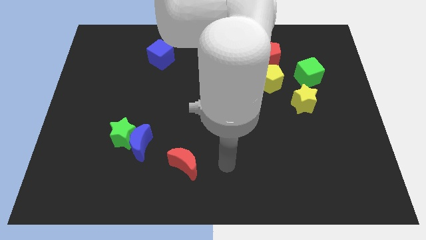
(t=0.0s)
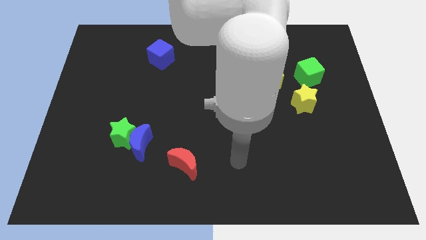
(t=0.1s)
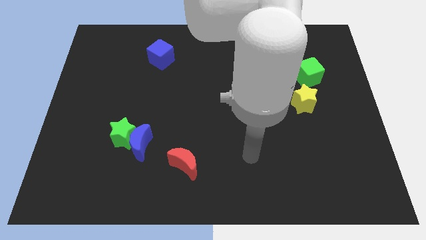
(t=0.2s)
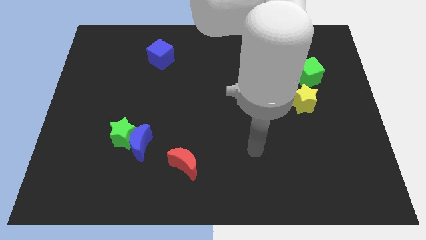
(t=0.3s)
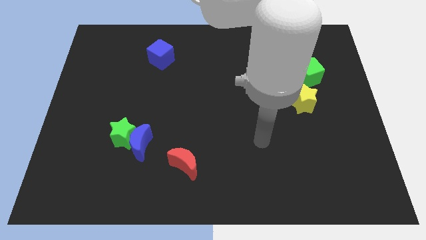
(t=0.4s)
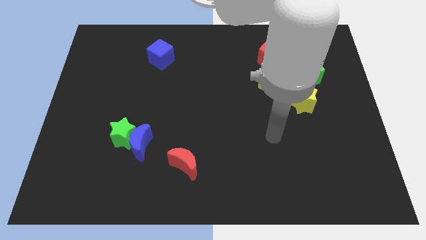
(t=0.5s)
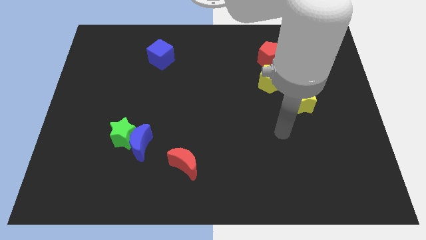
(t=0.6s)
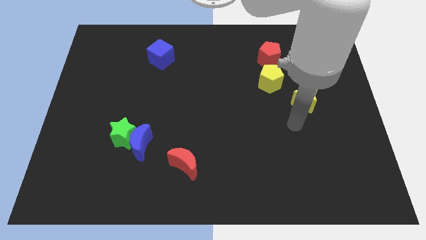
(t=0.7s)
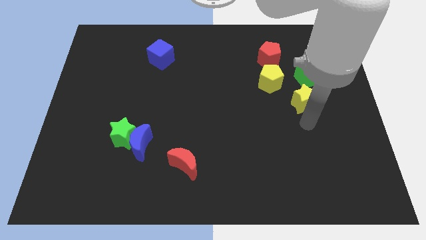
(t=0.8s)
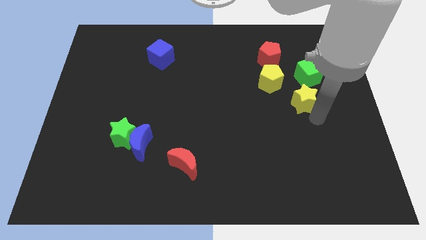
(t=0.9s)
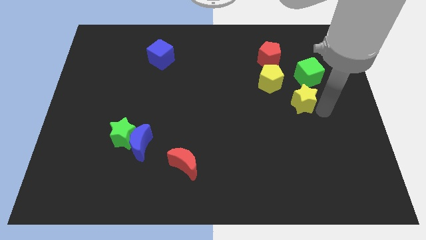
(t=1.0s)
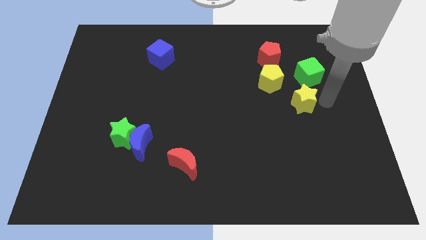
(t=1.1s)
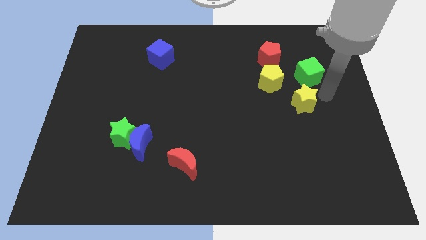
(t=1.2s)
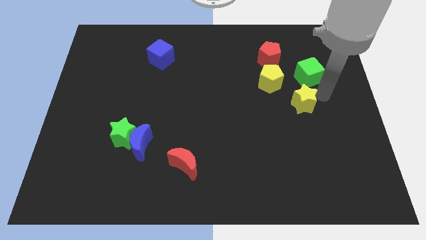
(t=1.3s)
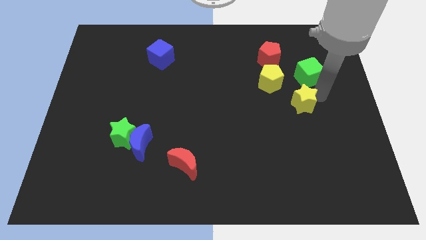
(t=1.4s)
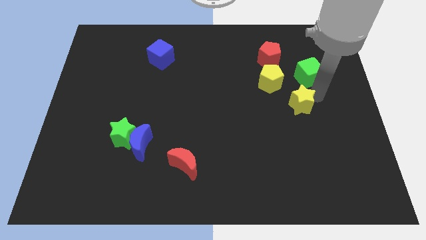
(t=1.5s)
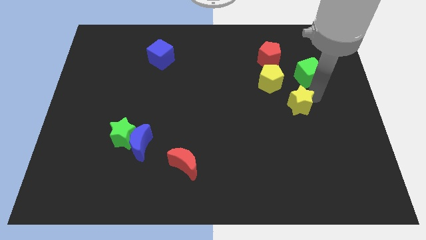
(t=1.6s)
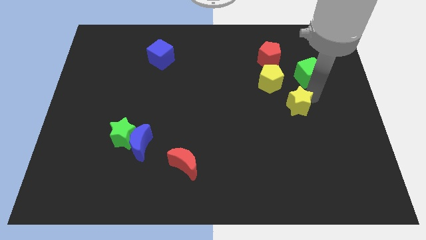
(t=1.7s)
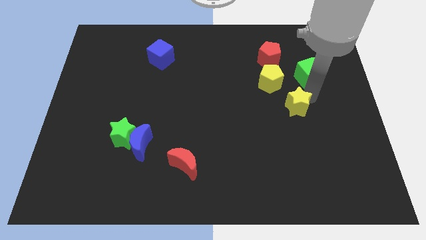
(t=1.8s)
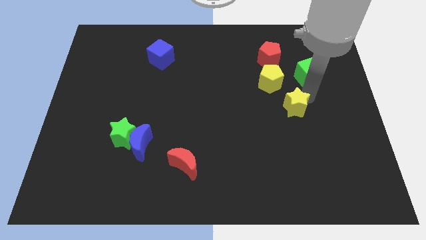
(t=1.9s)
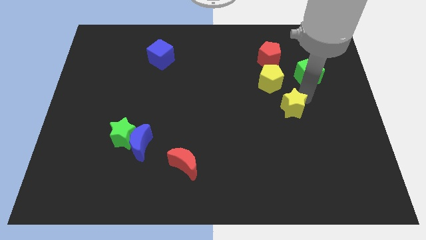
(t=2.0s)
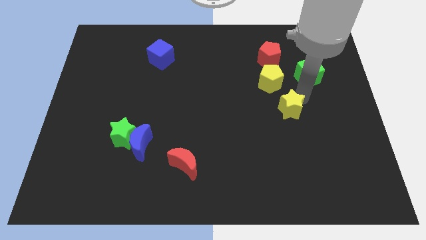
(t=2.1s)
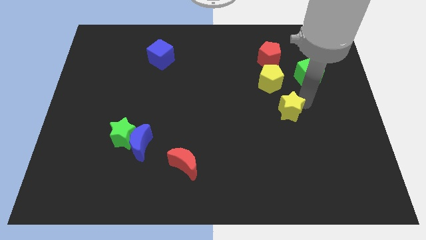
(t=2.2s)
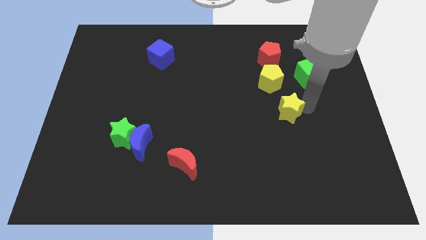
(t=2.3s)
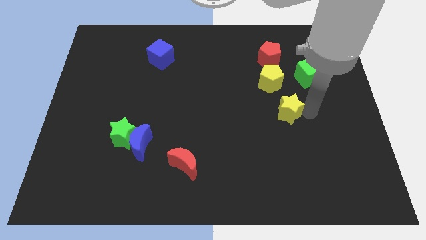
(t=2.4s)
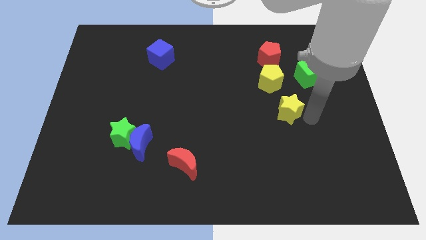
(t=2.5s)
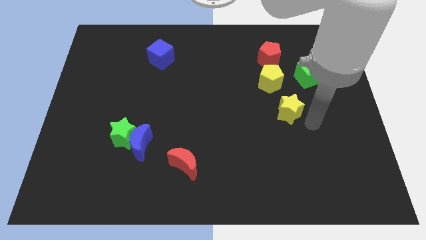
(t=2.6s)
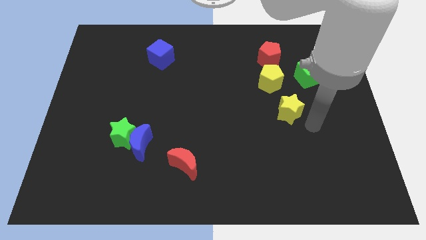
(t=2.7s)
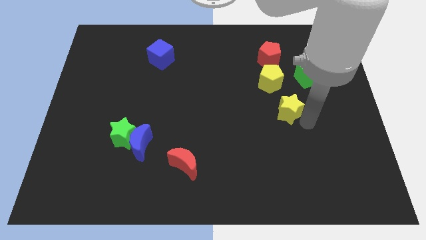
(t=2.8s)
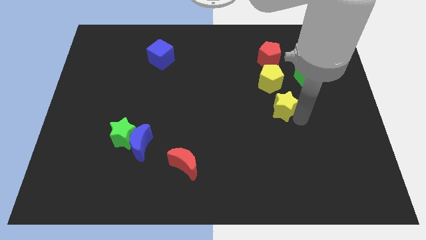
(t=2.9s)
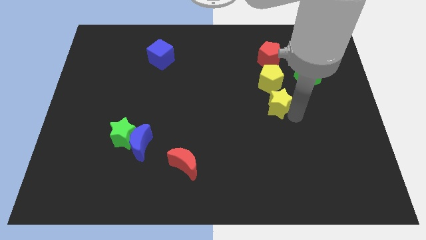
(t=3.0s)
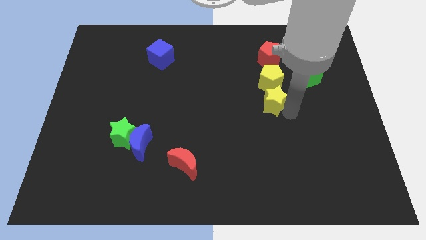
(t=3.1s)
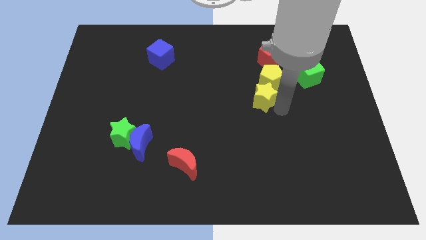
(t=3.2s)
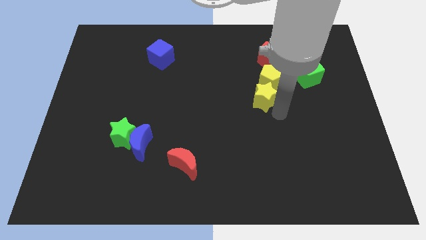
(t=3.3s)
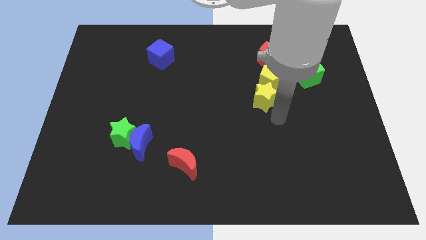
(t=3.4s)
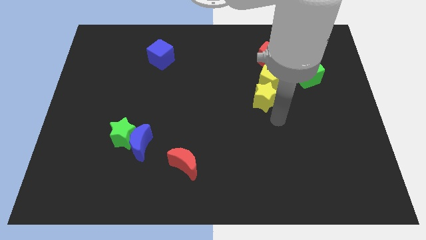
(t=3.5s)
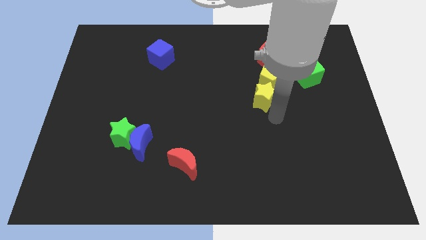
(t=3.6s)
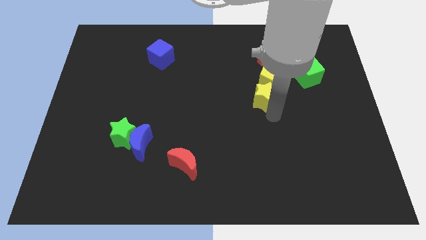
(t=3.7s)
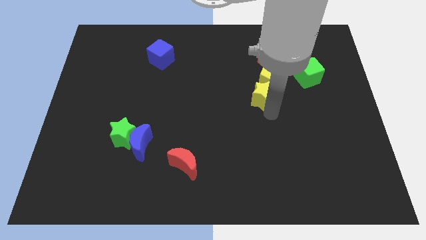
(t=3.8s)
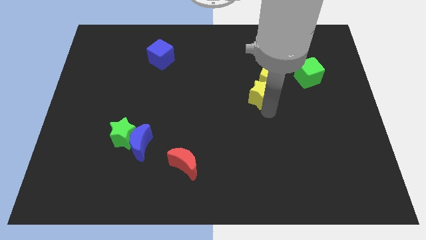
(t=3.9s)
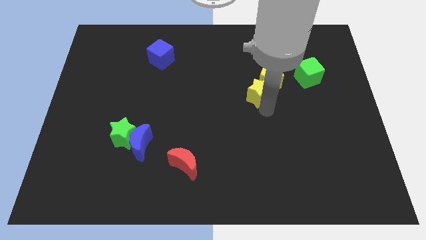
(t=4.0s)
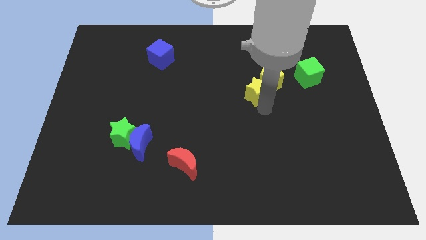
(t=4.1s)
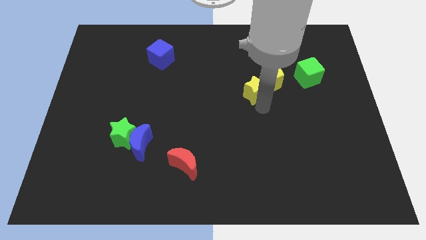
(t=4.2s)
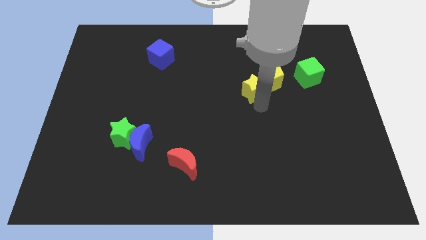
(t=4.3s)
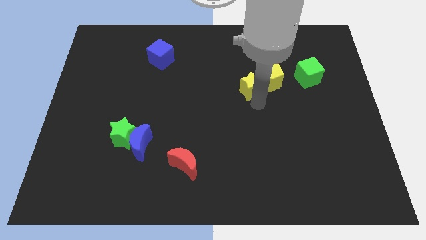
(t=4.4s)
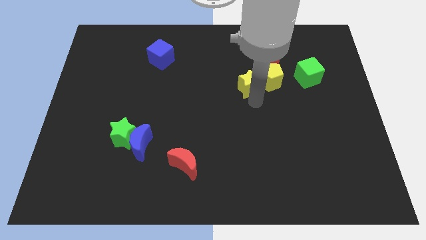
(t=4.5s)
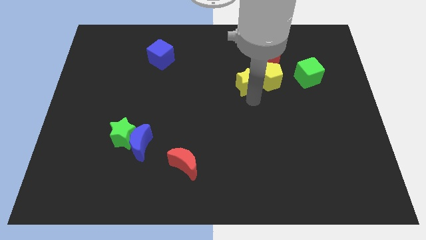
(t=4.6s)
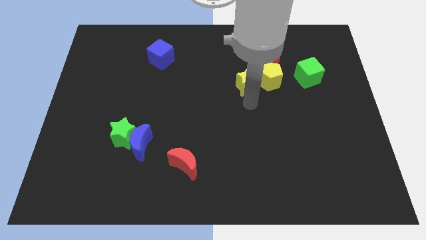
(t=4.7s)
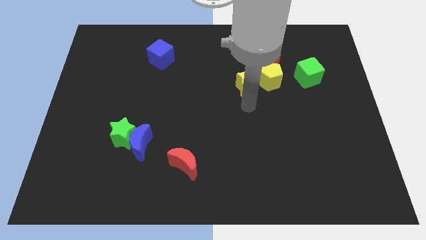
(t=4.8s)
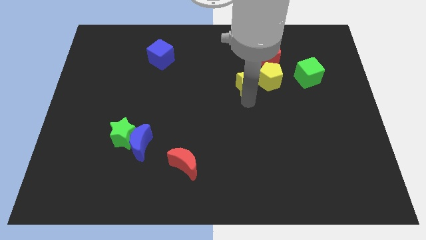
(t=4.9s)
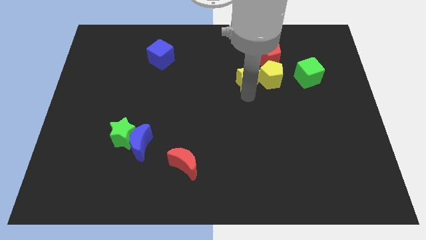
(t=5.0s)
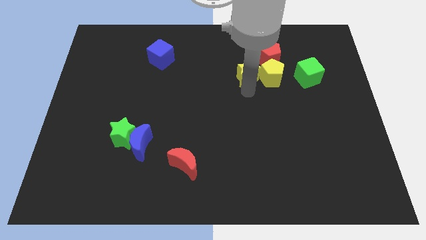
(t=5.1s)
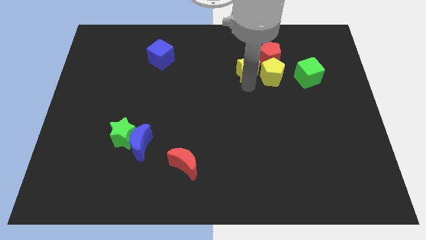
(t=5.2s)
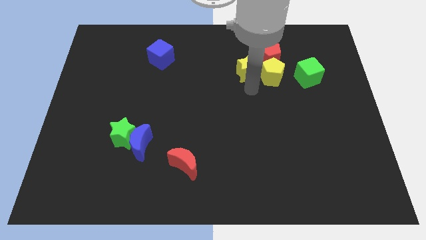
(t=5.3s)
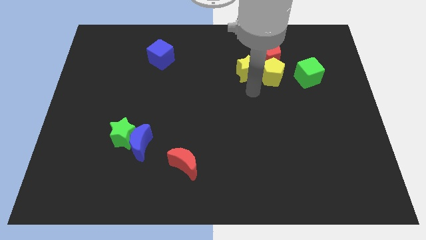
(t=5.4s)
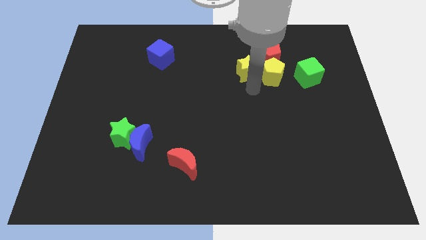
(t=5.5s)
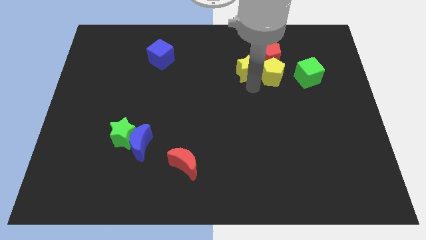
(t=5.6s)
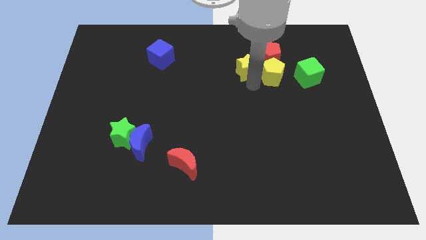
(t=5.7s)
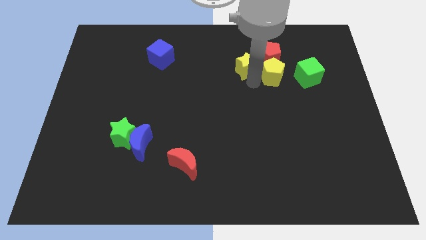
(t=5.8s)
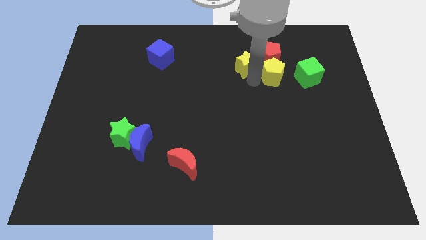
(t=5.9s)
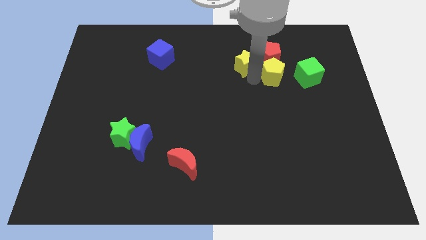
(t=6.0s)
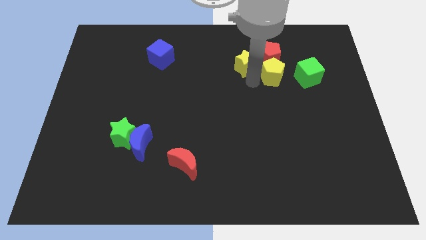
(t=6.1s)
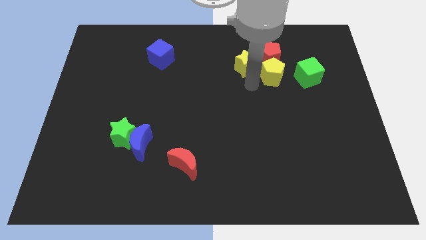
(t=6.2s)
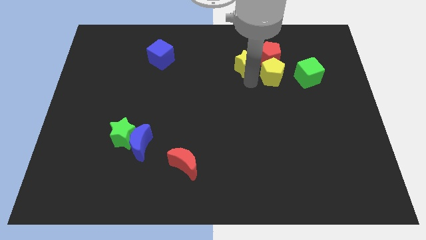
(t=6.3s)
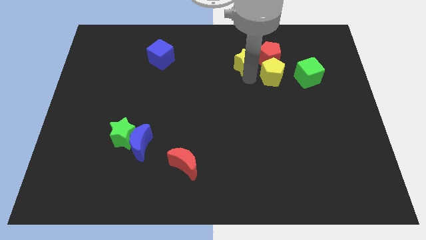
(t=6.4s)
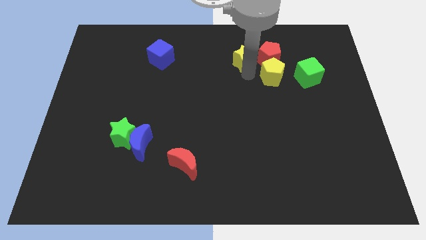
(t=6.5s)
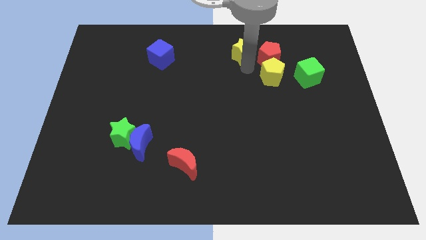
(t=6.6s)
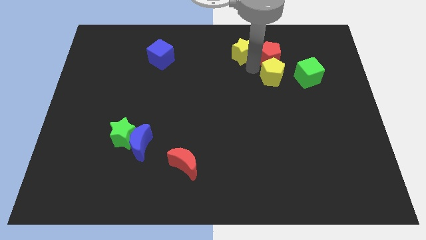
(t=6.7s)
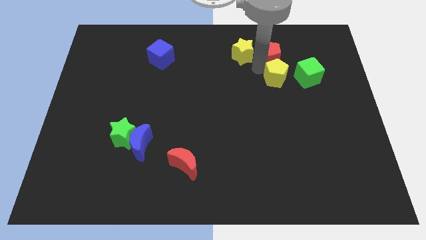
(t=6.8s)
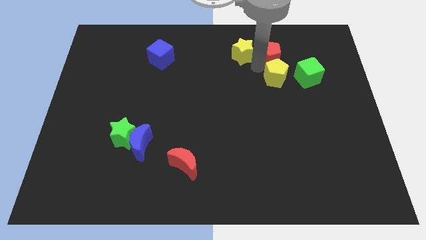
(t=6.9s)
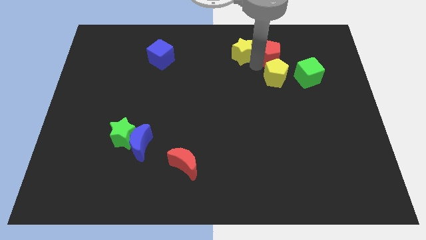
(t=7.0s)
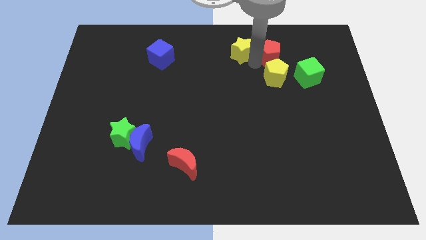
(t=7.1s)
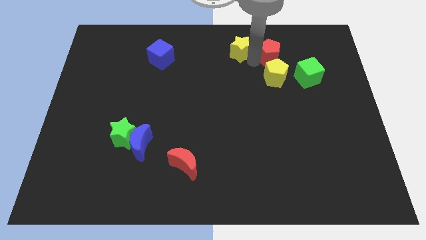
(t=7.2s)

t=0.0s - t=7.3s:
put the yellow star to the top side
